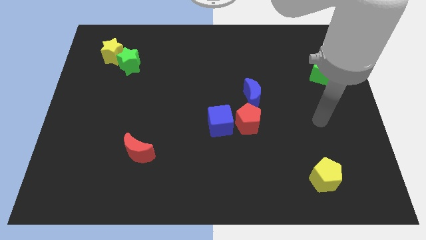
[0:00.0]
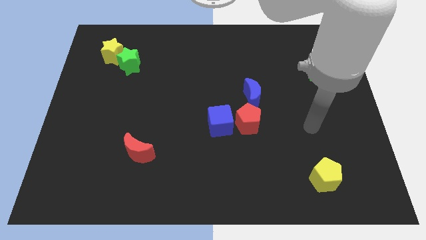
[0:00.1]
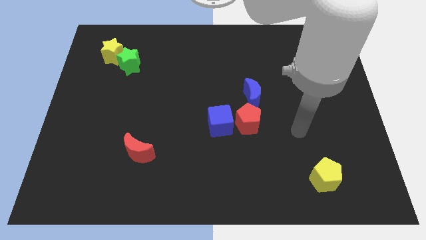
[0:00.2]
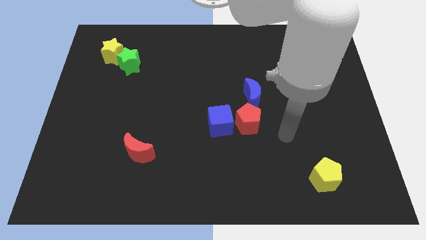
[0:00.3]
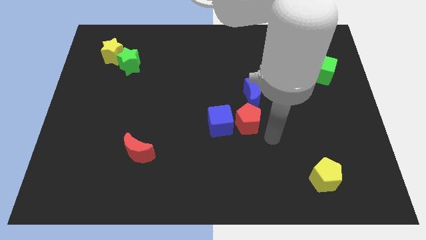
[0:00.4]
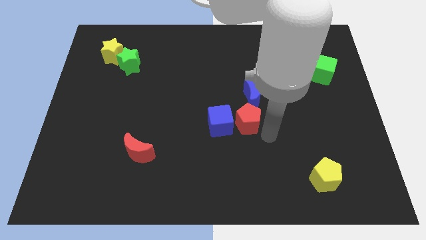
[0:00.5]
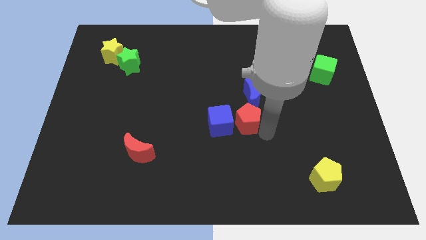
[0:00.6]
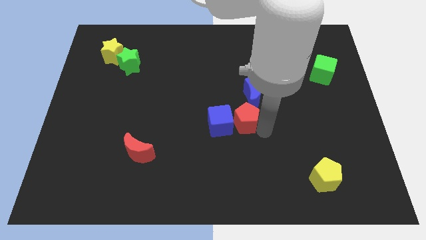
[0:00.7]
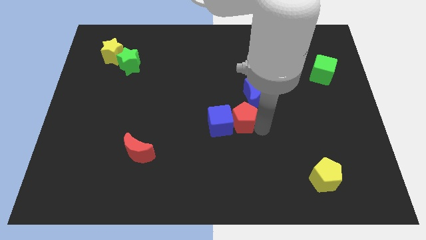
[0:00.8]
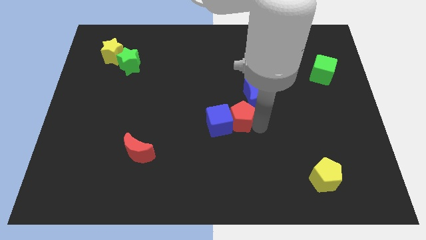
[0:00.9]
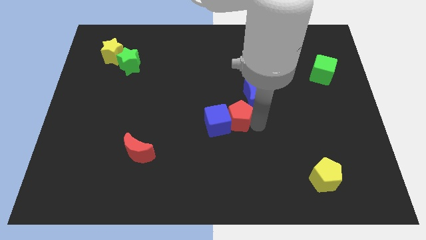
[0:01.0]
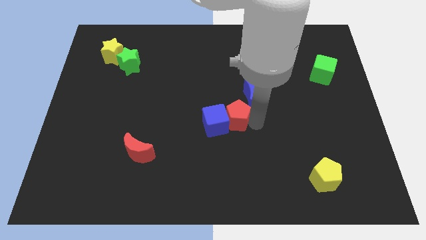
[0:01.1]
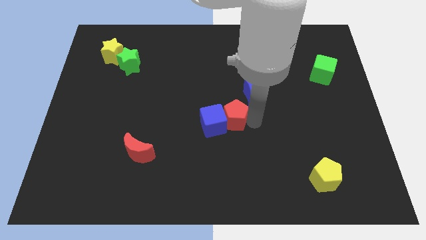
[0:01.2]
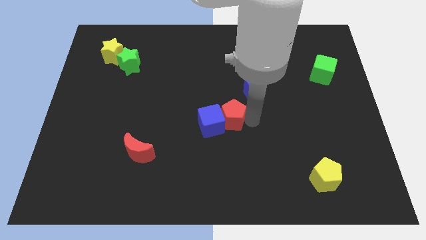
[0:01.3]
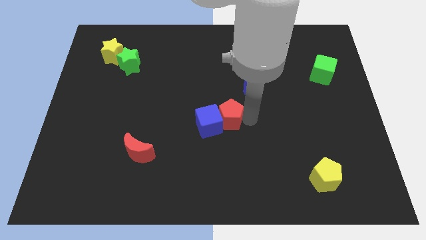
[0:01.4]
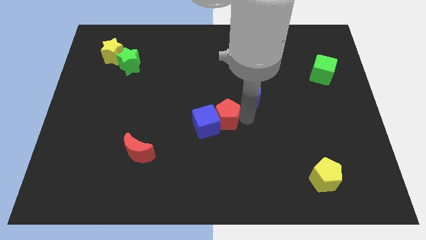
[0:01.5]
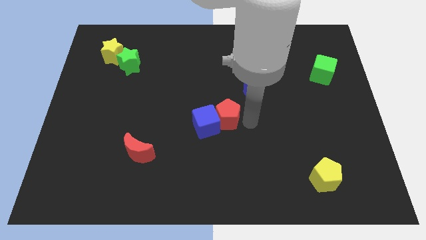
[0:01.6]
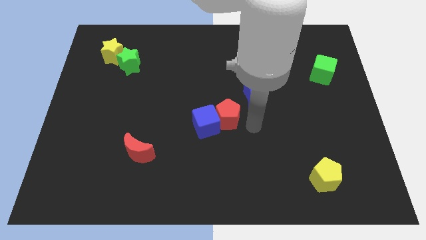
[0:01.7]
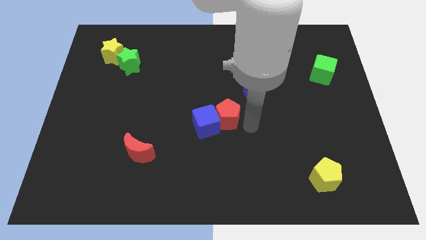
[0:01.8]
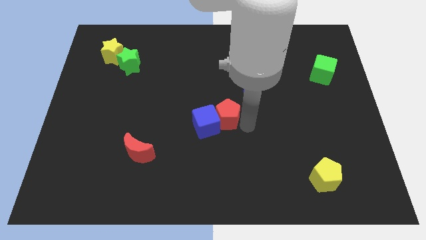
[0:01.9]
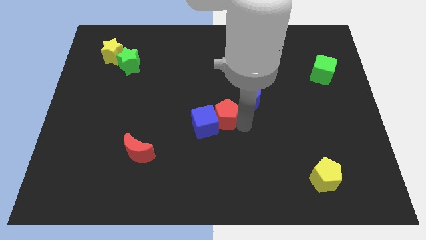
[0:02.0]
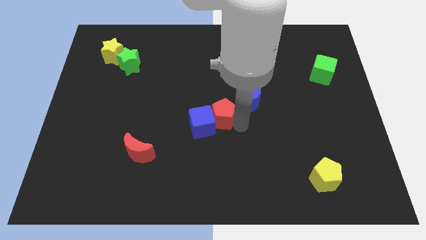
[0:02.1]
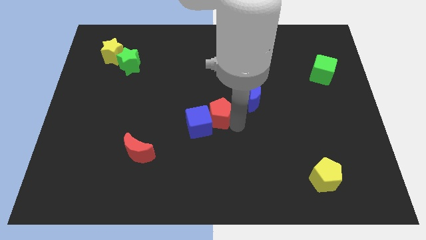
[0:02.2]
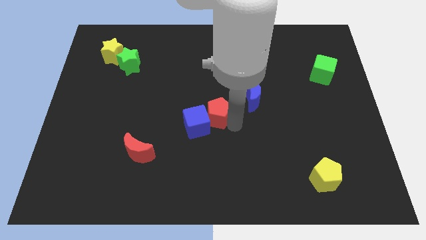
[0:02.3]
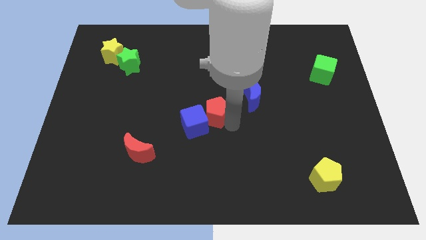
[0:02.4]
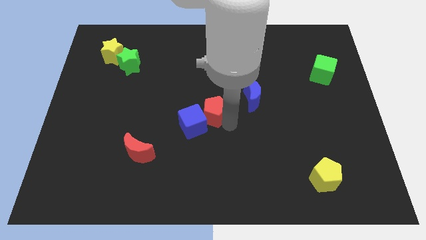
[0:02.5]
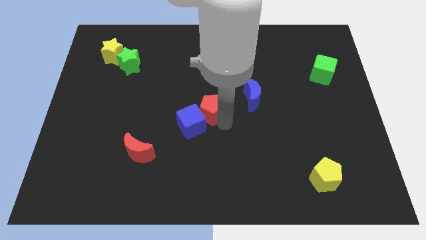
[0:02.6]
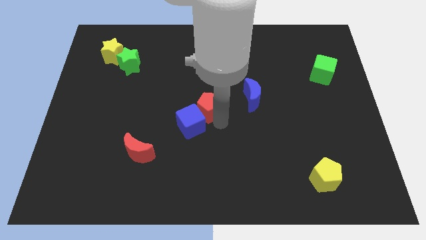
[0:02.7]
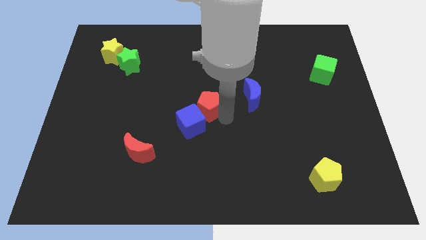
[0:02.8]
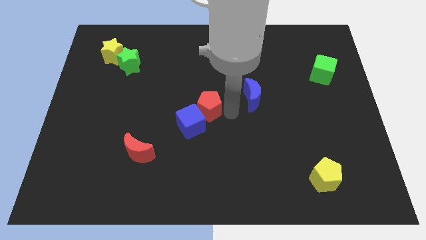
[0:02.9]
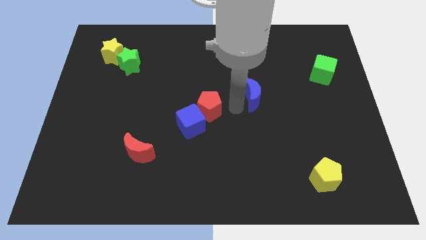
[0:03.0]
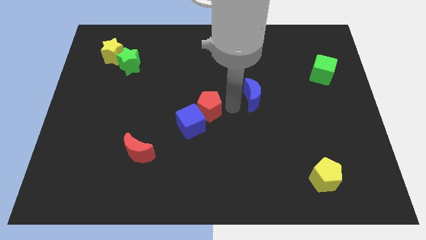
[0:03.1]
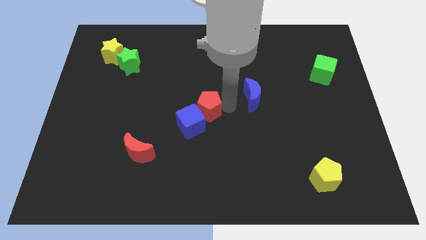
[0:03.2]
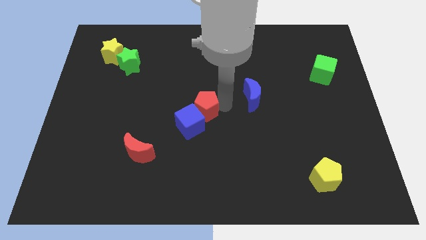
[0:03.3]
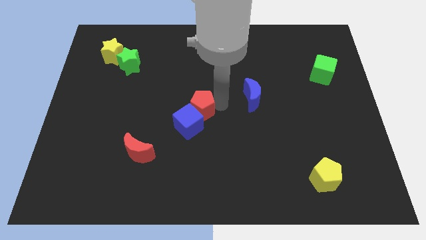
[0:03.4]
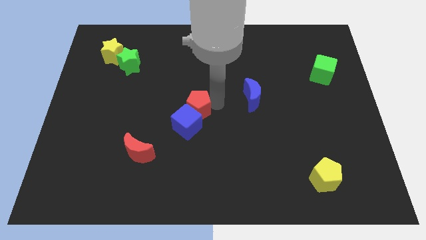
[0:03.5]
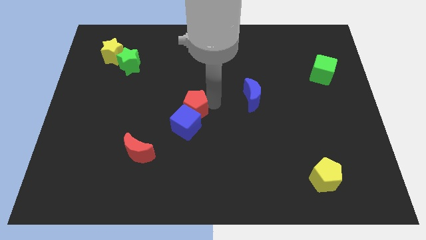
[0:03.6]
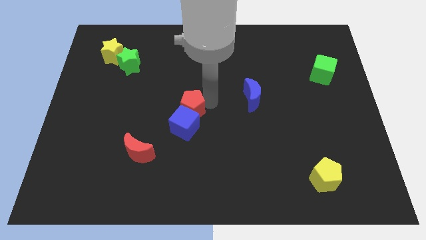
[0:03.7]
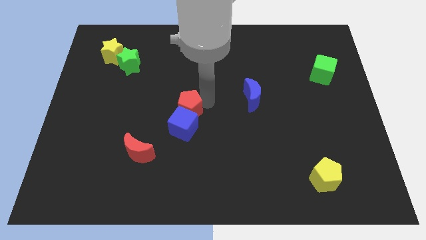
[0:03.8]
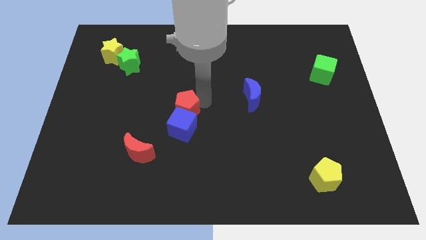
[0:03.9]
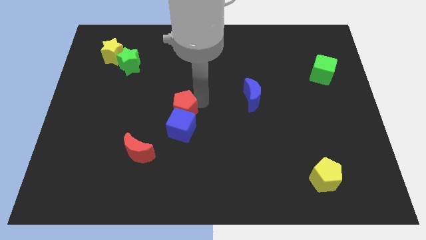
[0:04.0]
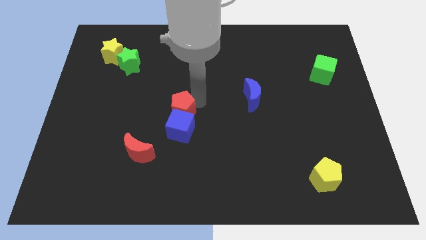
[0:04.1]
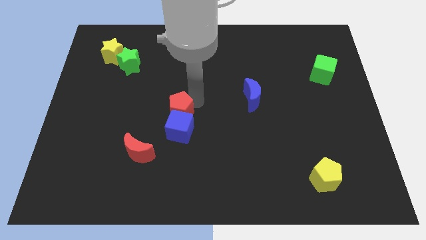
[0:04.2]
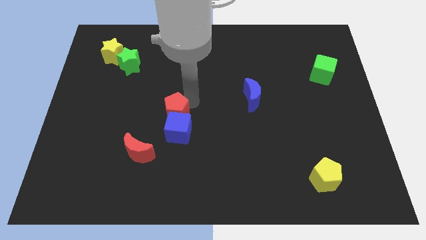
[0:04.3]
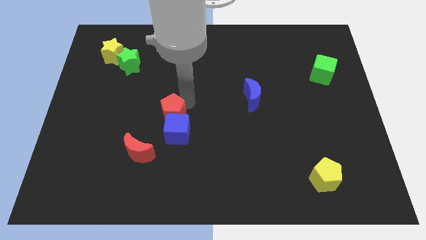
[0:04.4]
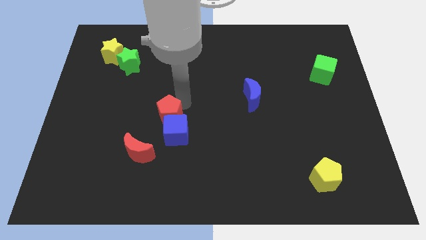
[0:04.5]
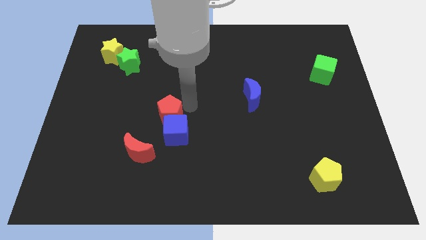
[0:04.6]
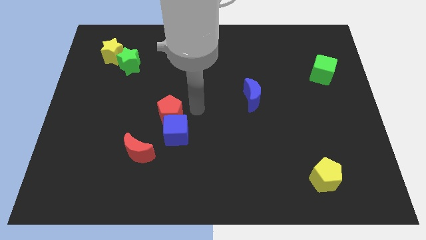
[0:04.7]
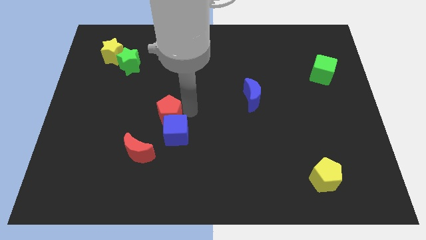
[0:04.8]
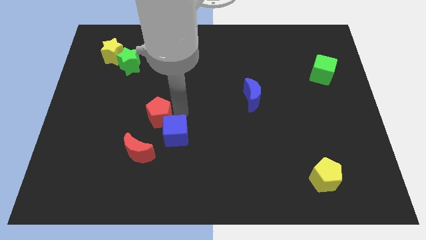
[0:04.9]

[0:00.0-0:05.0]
move the red pentagon left

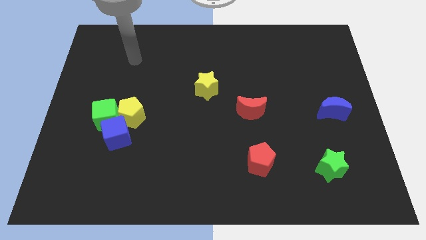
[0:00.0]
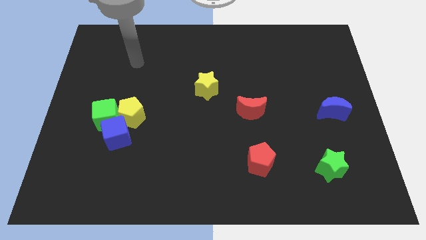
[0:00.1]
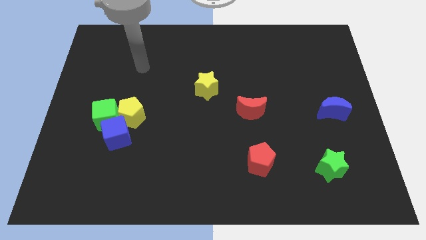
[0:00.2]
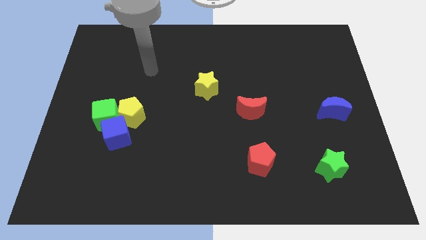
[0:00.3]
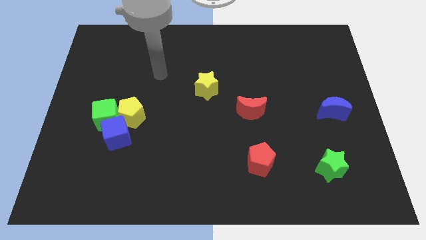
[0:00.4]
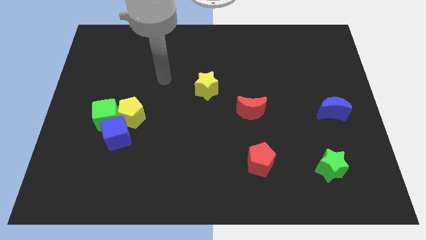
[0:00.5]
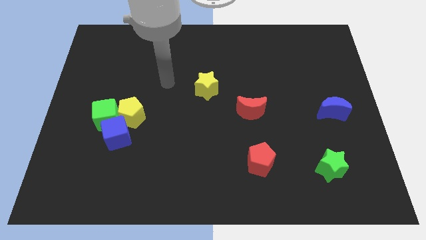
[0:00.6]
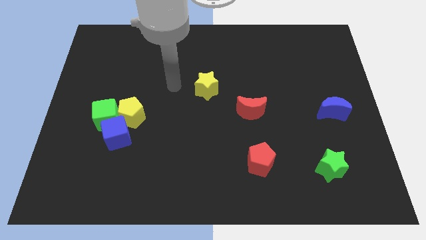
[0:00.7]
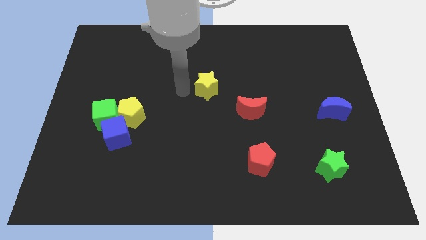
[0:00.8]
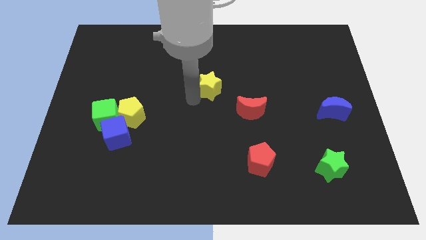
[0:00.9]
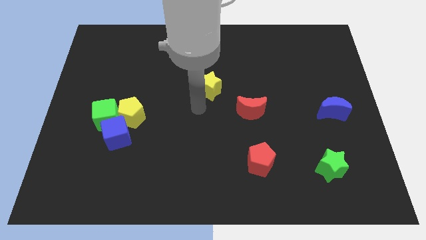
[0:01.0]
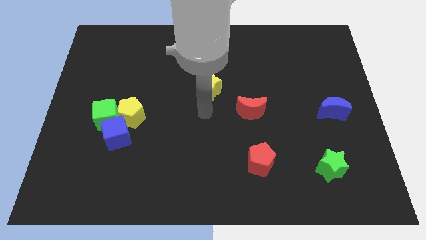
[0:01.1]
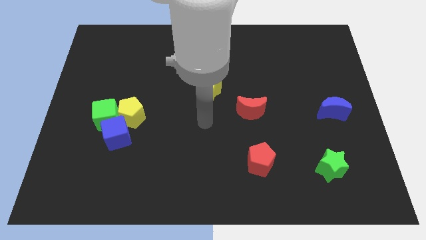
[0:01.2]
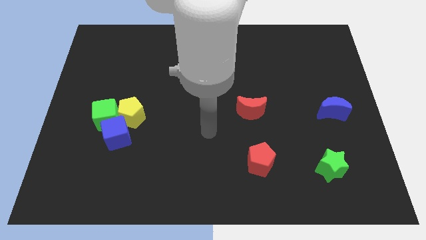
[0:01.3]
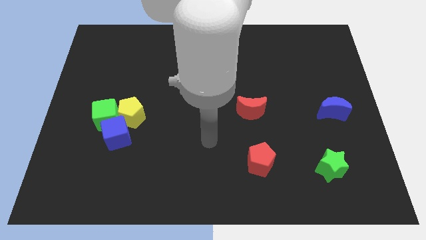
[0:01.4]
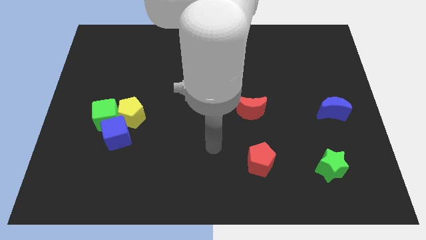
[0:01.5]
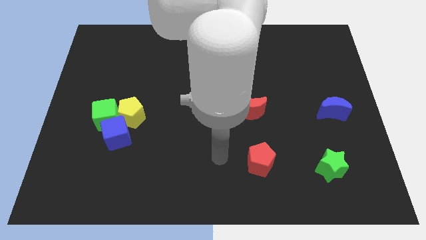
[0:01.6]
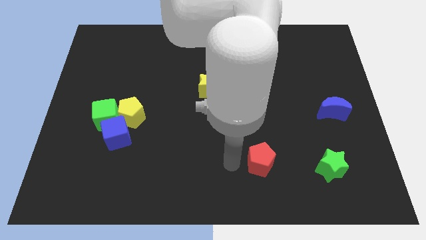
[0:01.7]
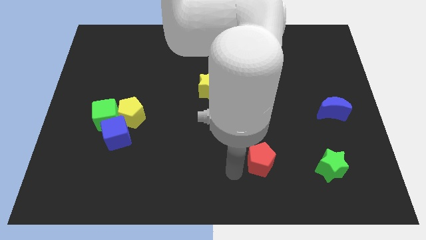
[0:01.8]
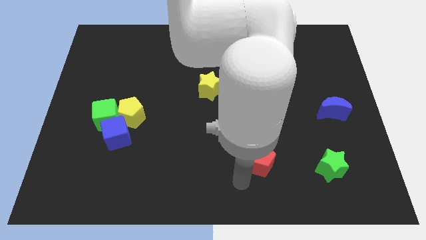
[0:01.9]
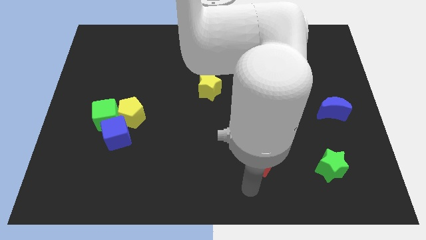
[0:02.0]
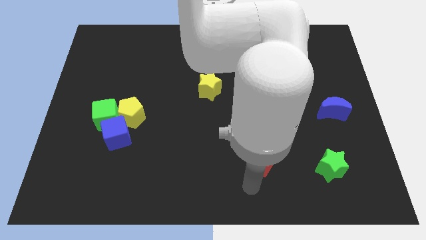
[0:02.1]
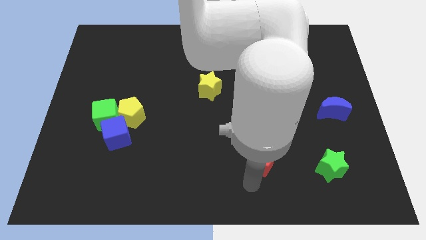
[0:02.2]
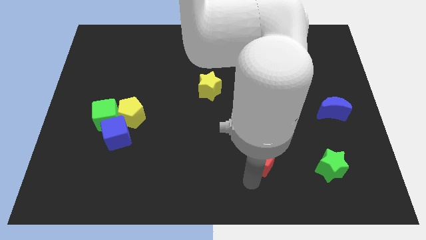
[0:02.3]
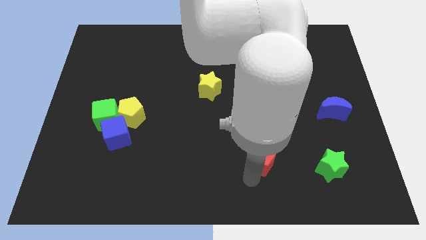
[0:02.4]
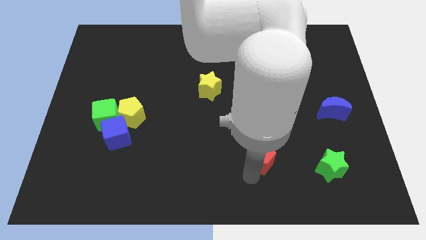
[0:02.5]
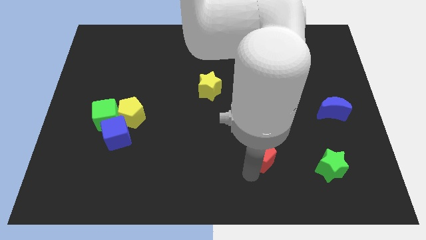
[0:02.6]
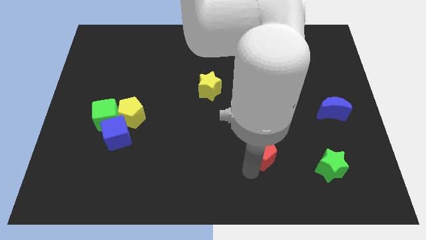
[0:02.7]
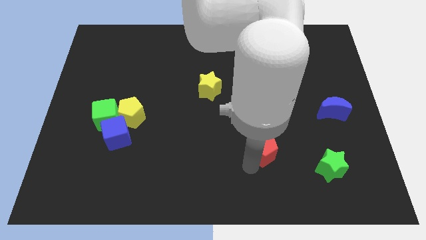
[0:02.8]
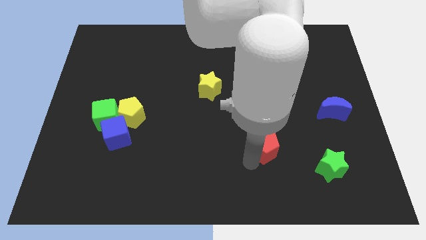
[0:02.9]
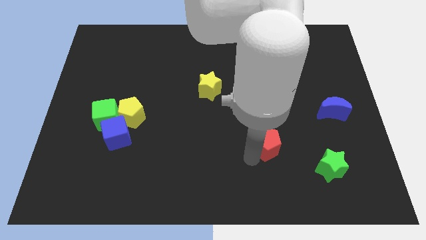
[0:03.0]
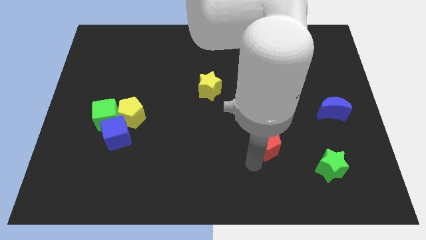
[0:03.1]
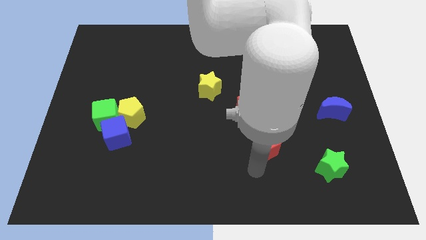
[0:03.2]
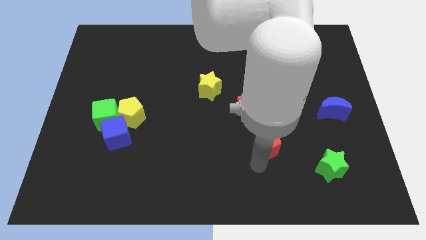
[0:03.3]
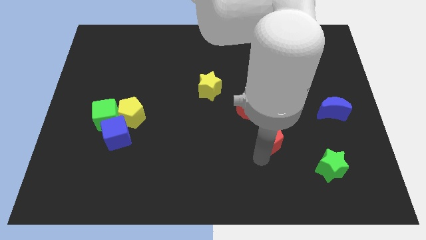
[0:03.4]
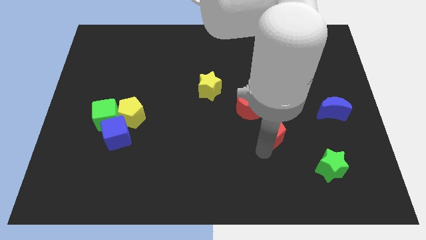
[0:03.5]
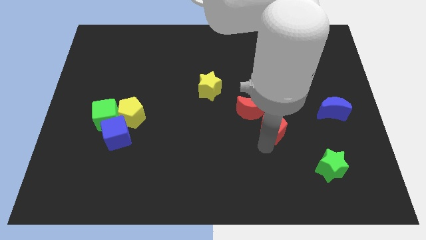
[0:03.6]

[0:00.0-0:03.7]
slightly push the red pentagon upwards

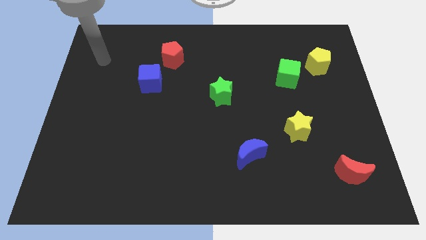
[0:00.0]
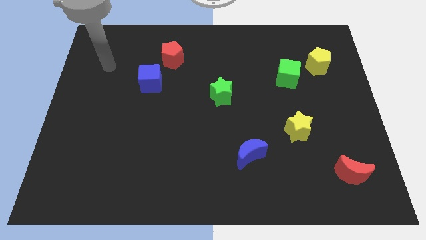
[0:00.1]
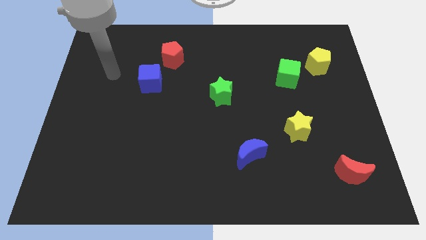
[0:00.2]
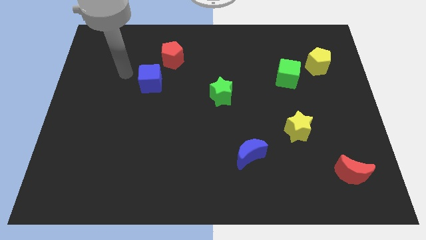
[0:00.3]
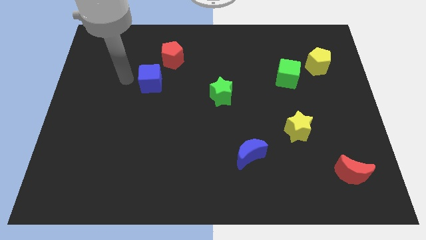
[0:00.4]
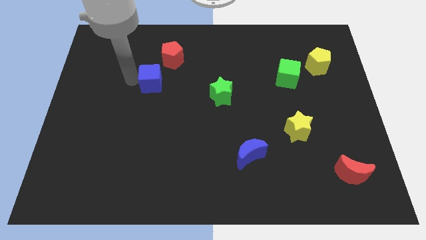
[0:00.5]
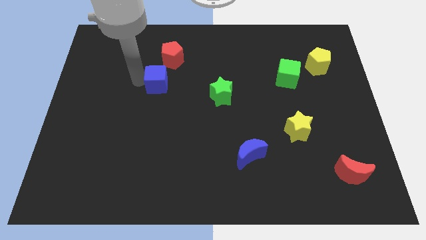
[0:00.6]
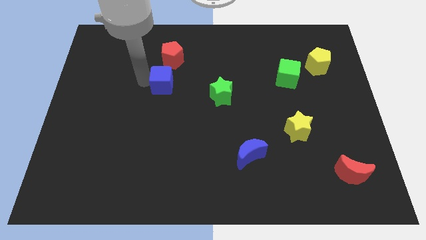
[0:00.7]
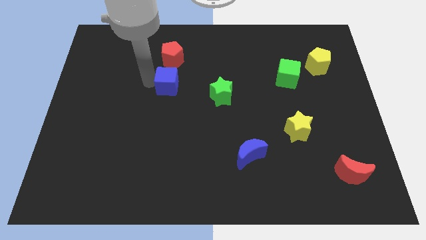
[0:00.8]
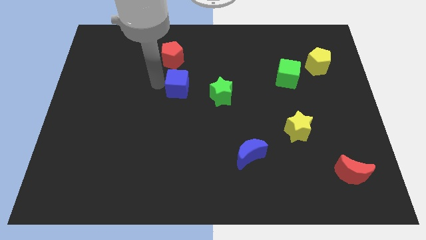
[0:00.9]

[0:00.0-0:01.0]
slightly push the blue cube right
